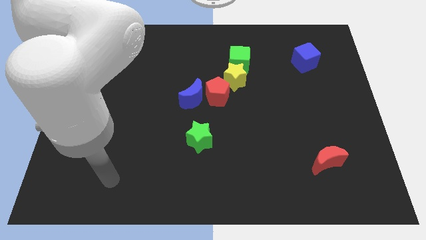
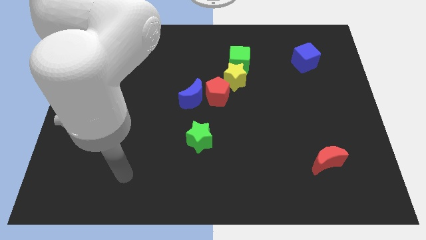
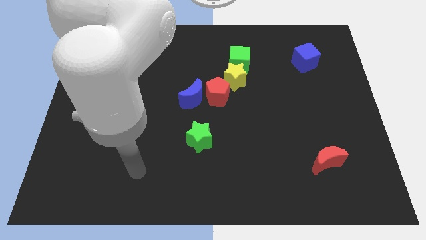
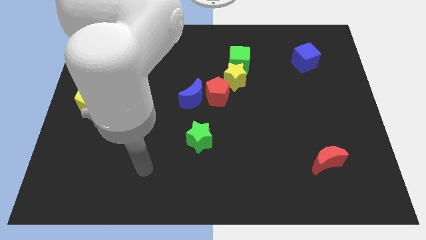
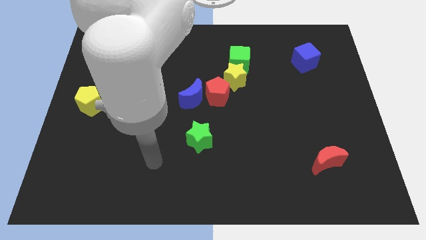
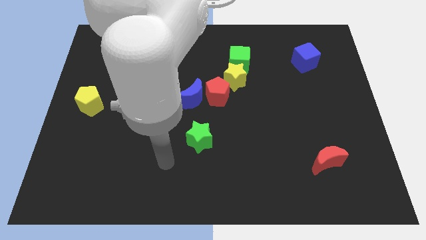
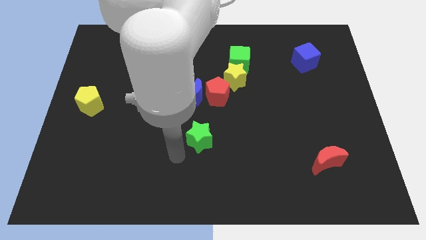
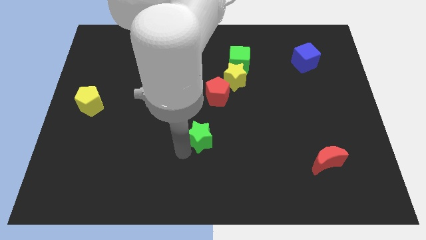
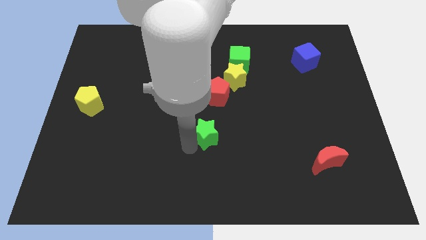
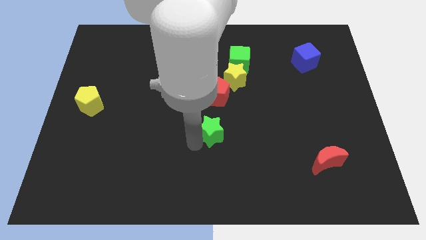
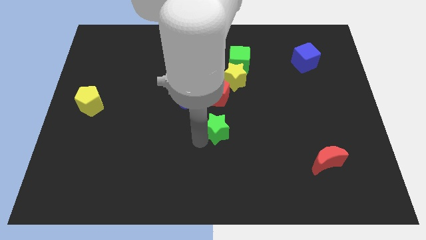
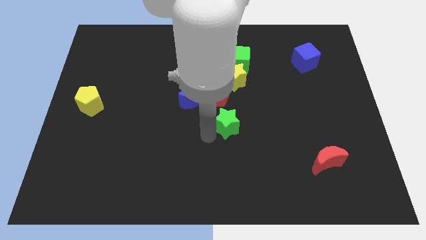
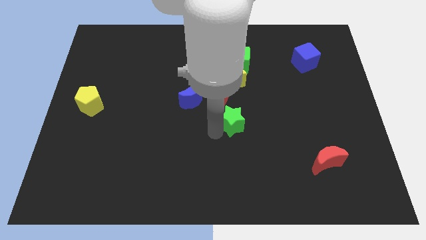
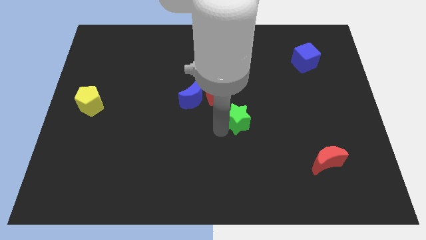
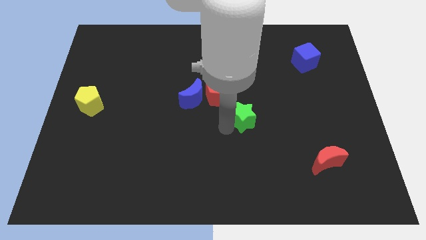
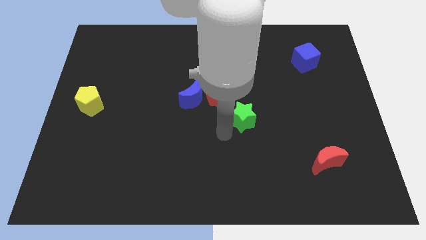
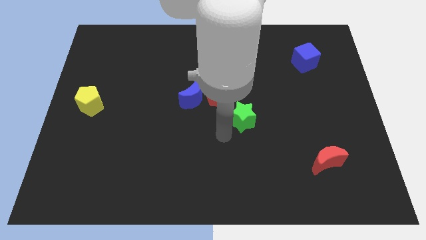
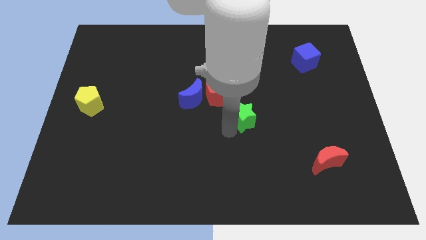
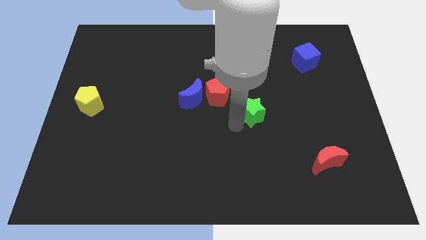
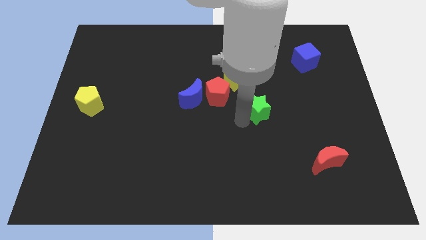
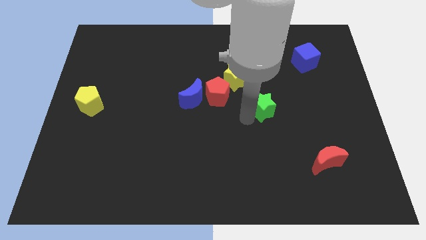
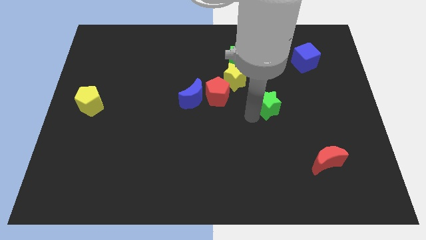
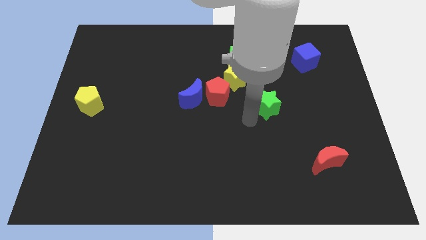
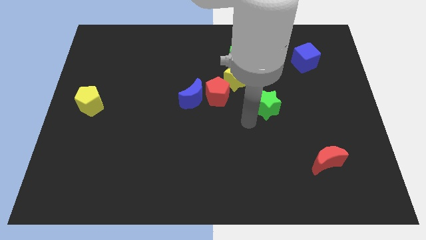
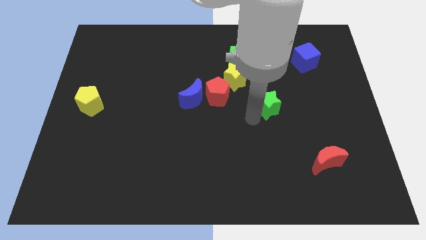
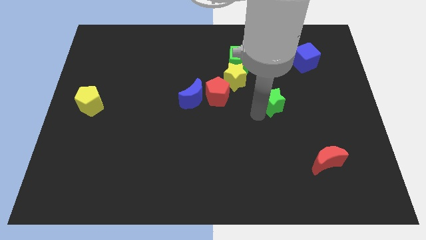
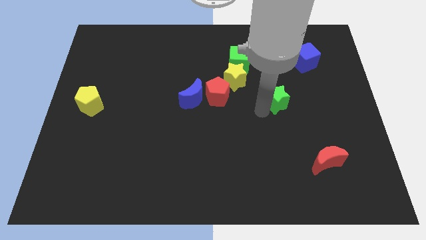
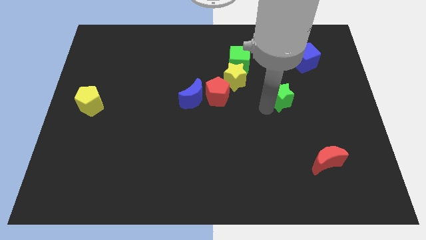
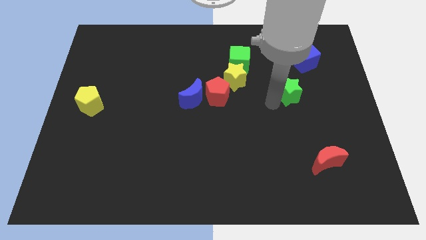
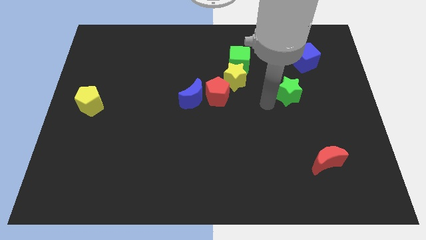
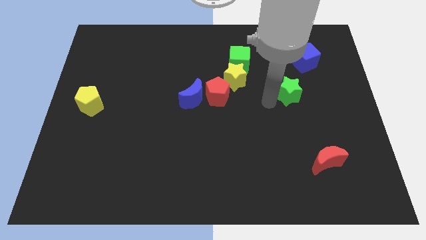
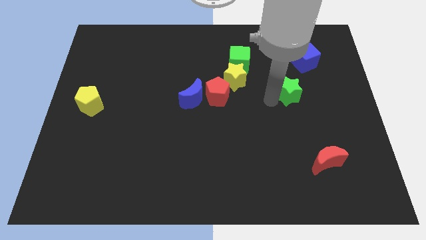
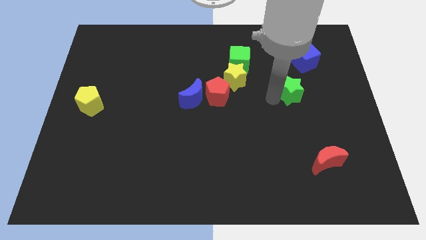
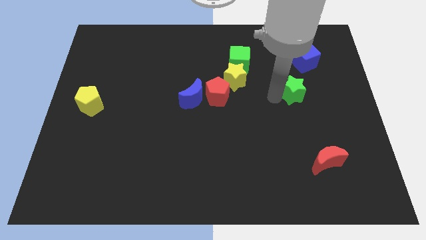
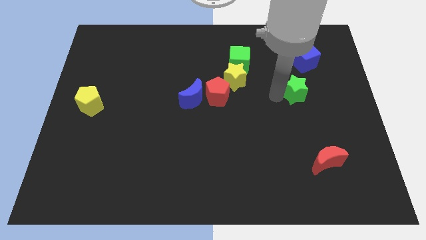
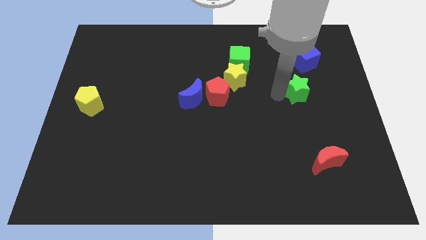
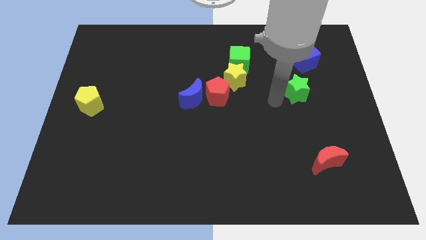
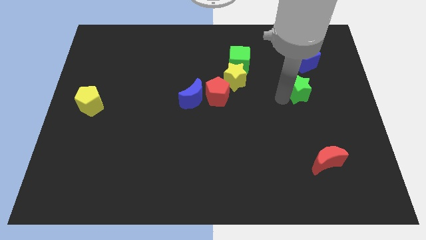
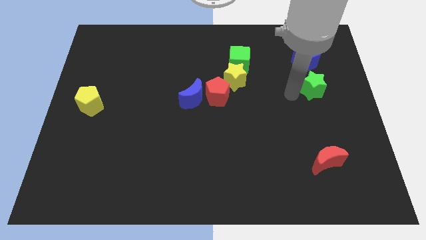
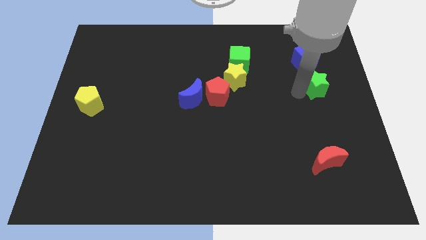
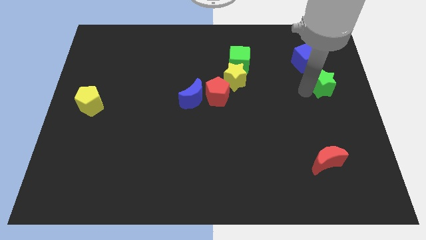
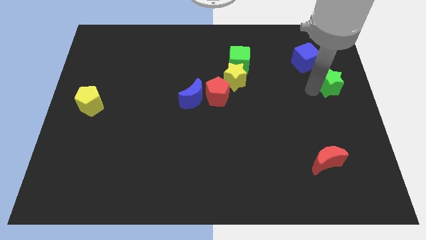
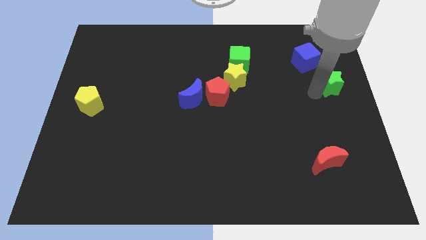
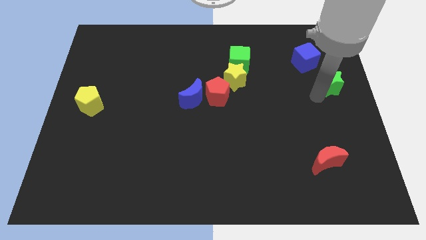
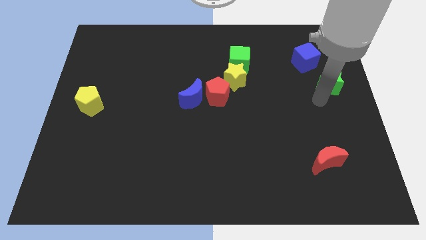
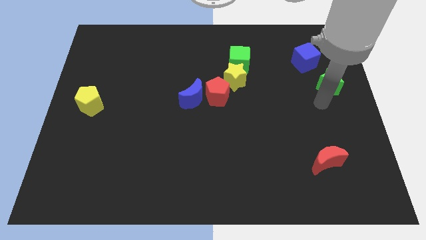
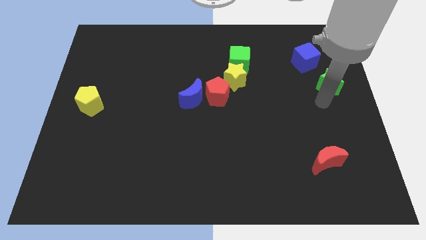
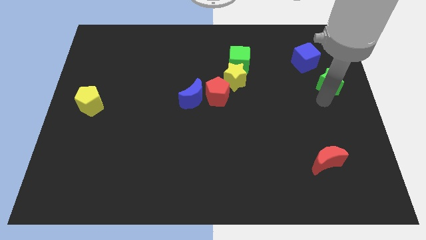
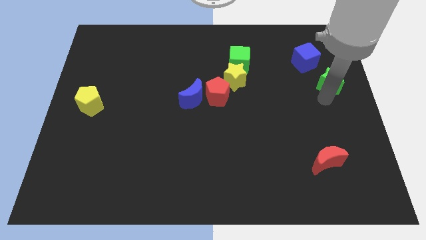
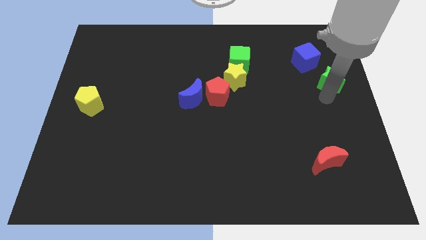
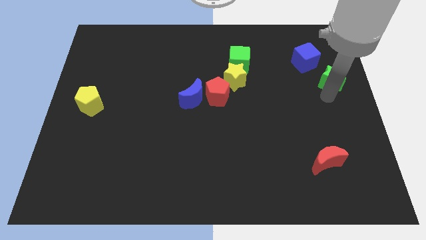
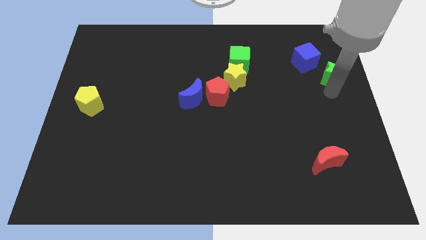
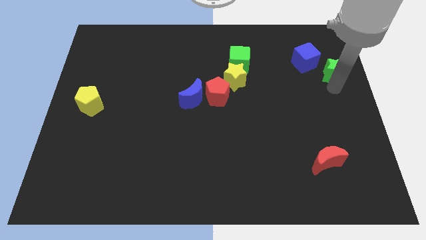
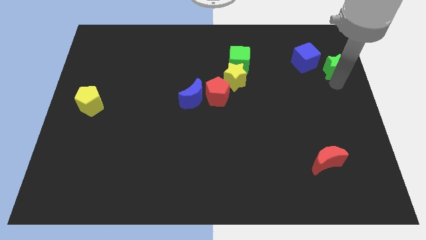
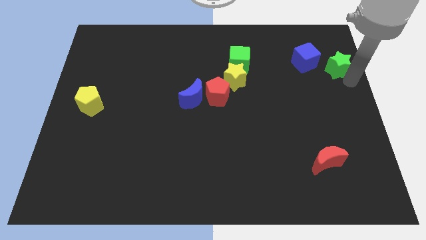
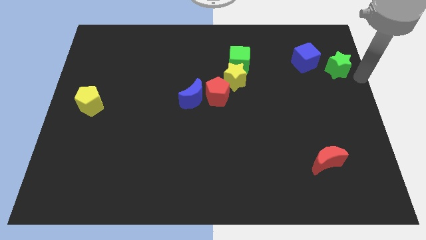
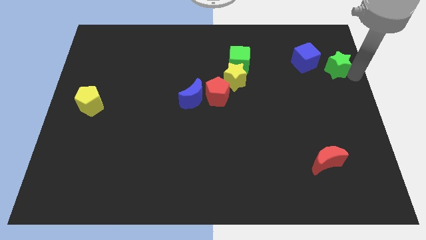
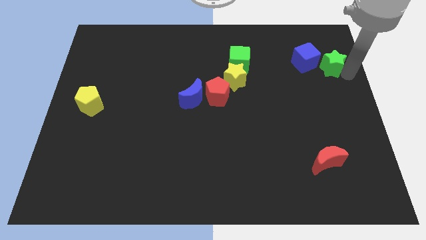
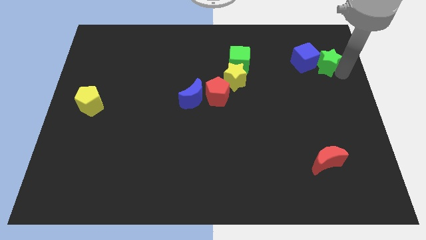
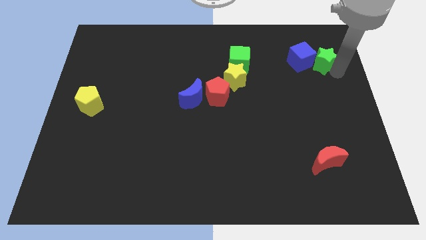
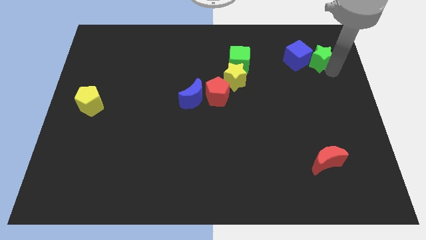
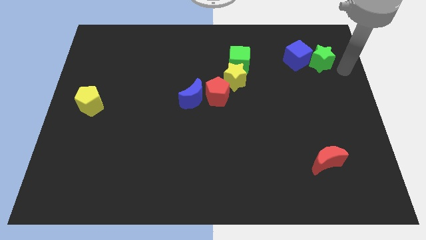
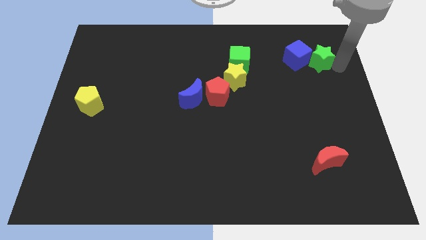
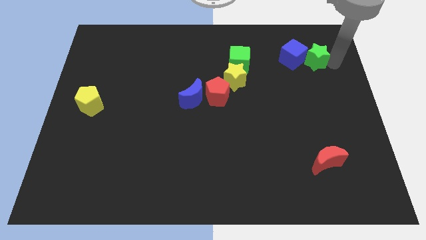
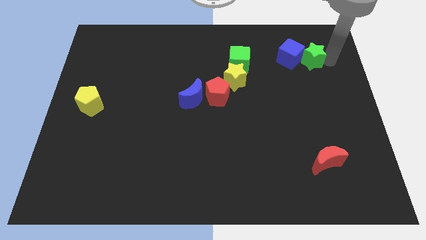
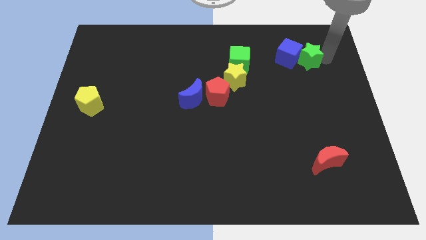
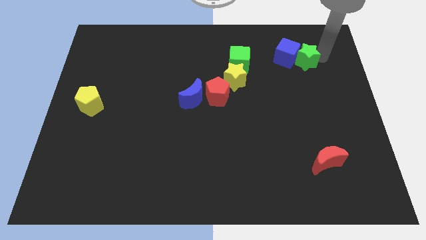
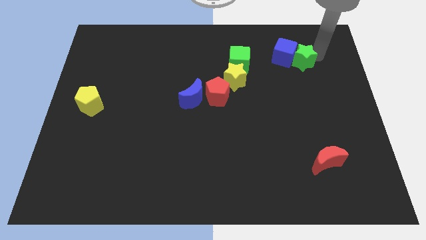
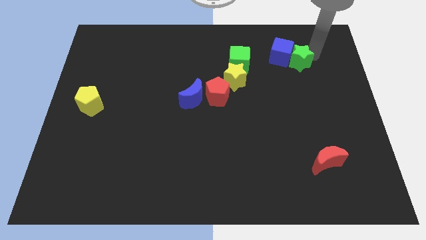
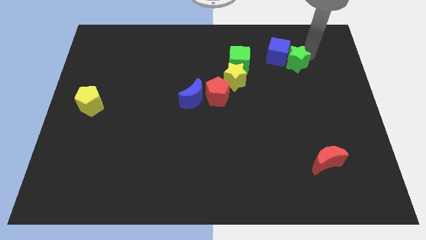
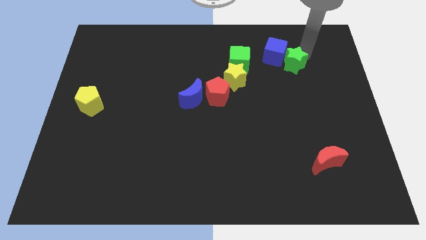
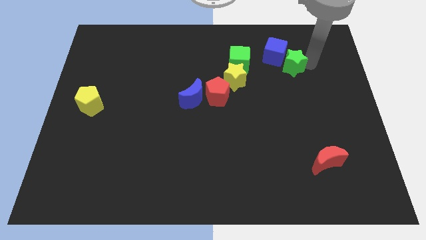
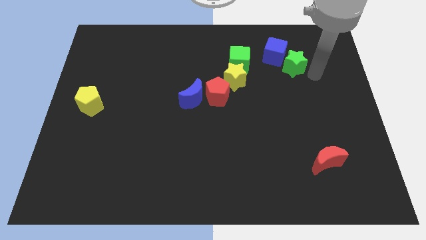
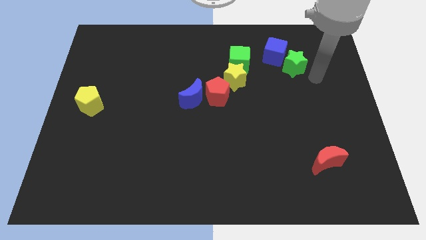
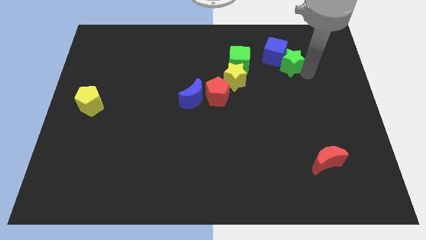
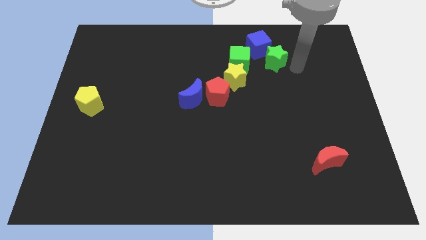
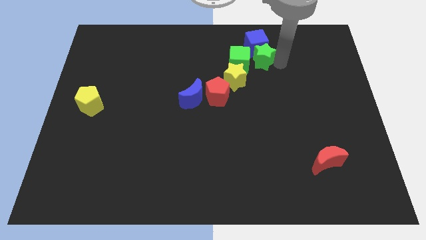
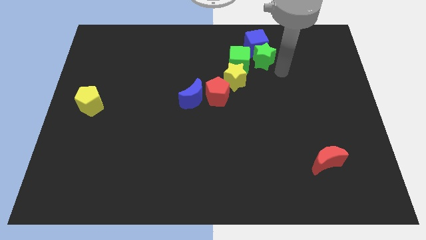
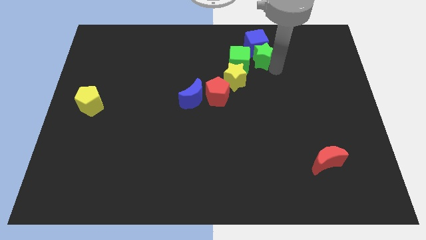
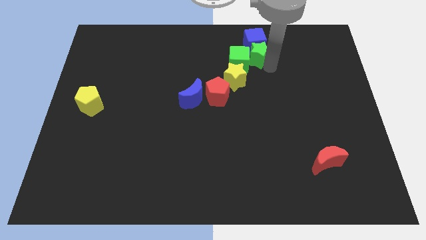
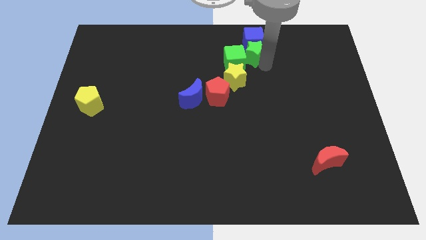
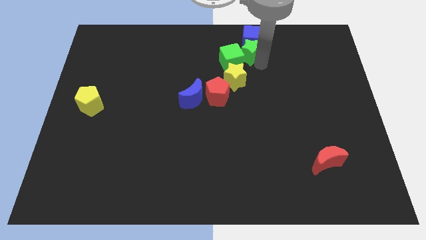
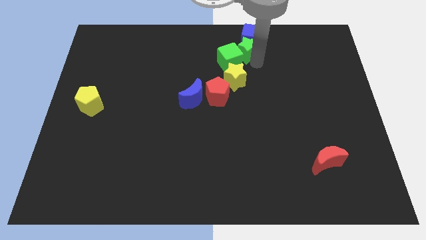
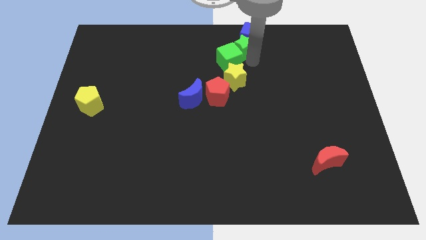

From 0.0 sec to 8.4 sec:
push the green star to the towards your base
